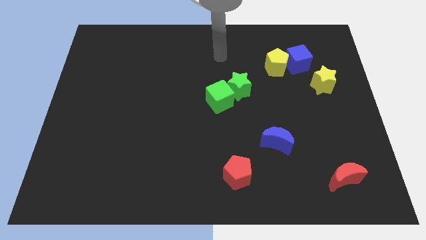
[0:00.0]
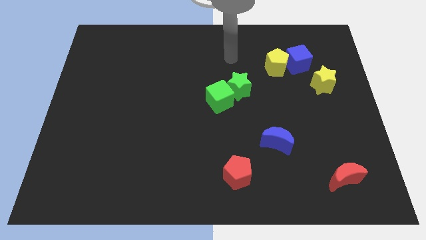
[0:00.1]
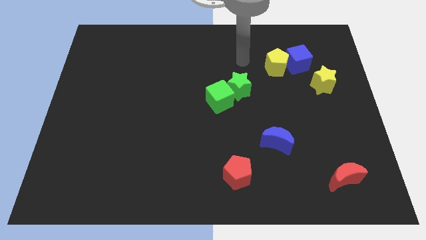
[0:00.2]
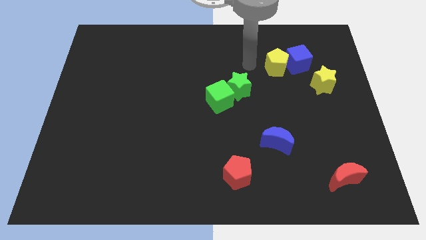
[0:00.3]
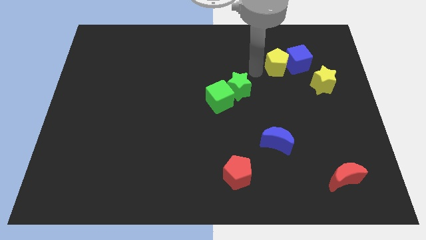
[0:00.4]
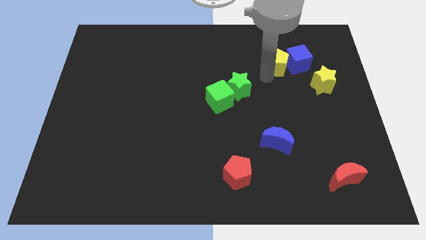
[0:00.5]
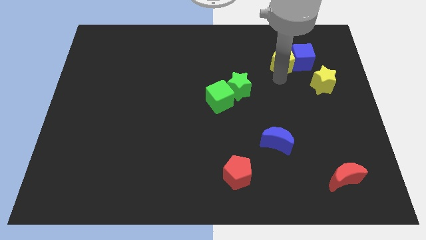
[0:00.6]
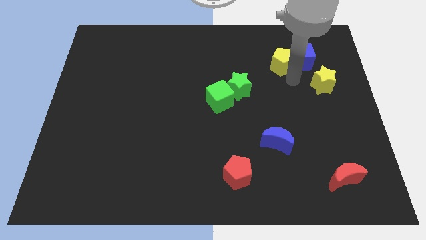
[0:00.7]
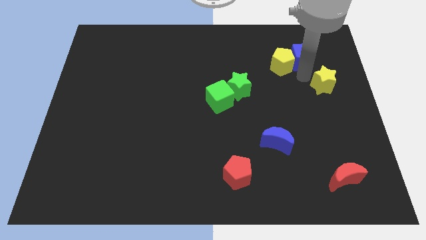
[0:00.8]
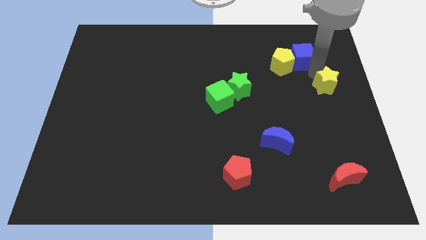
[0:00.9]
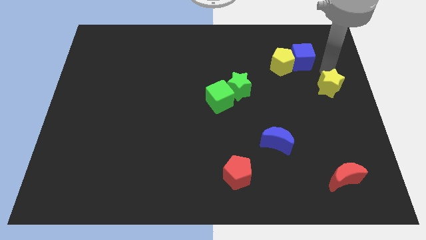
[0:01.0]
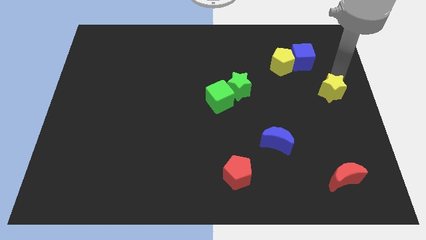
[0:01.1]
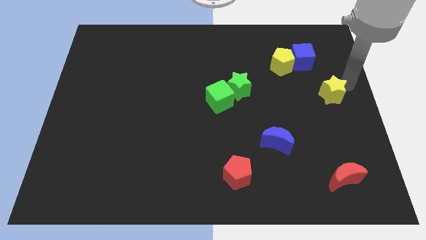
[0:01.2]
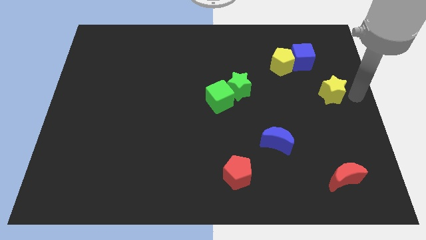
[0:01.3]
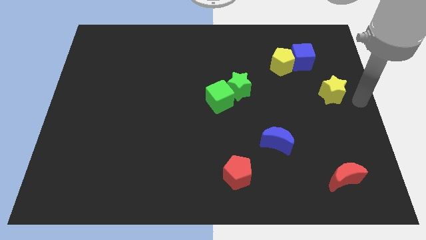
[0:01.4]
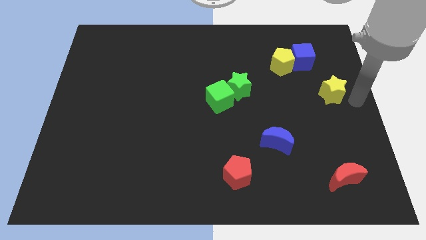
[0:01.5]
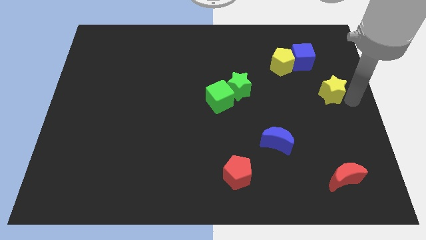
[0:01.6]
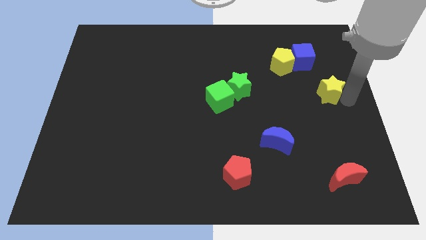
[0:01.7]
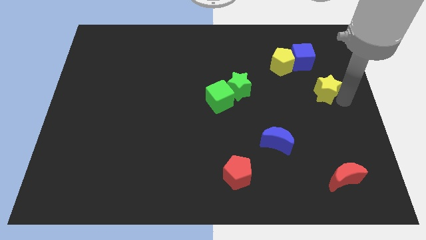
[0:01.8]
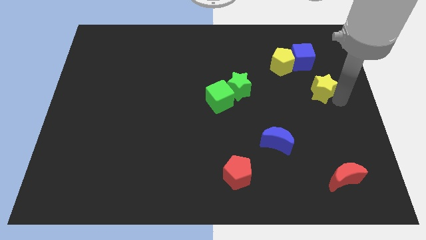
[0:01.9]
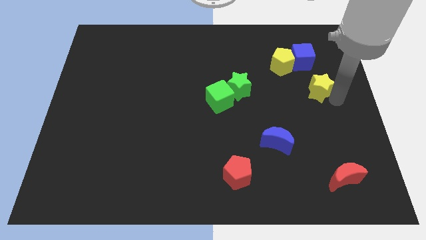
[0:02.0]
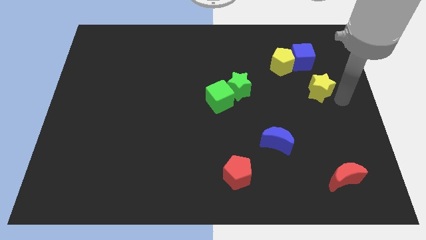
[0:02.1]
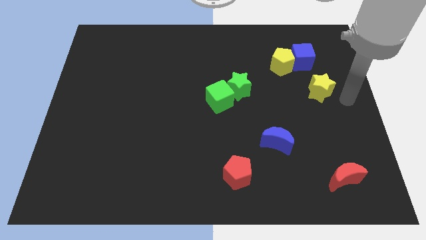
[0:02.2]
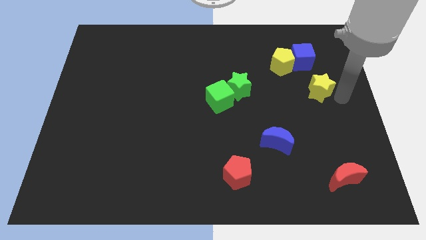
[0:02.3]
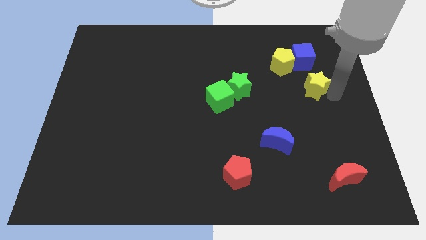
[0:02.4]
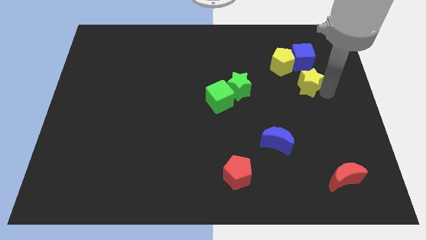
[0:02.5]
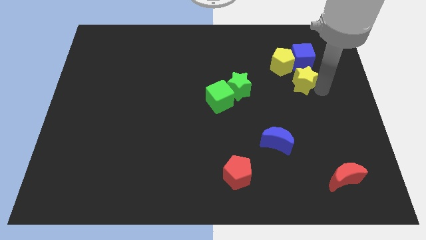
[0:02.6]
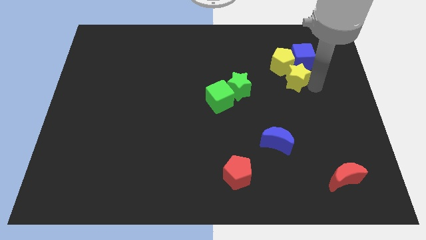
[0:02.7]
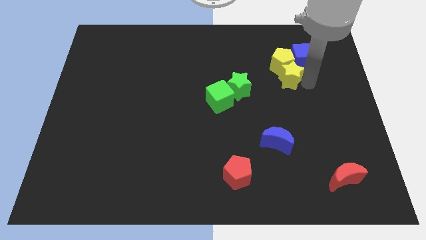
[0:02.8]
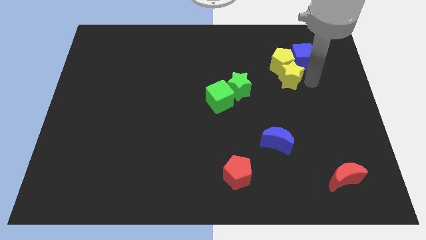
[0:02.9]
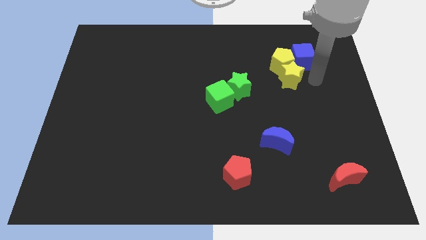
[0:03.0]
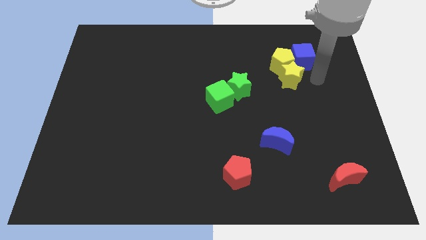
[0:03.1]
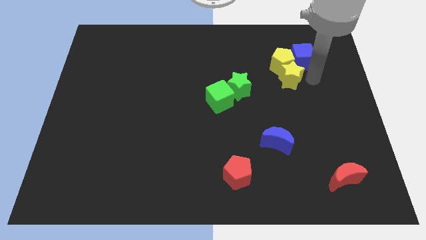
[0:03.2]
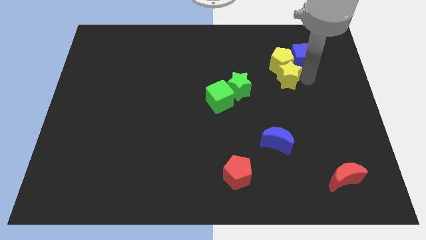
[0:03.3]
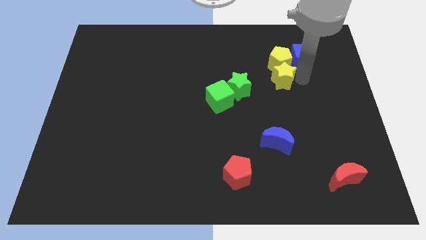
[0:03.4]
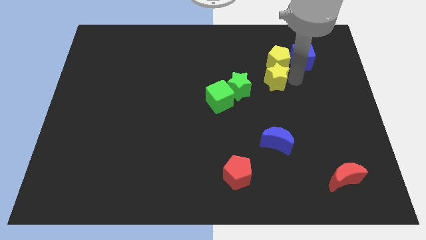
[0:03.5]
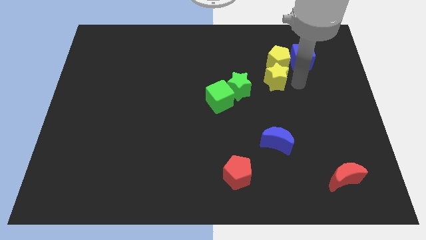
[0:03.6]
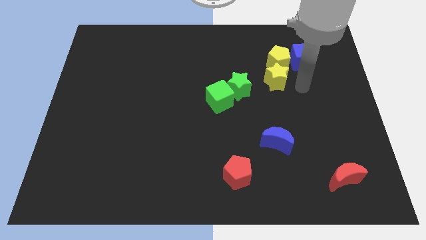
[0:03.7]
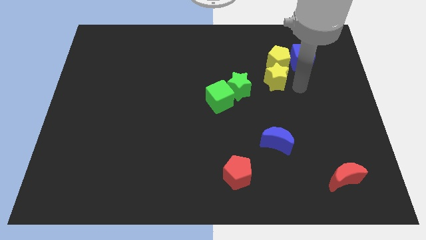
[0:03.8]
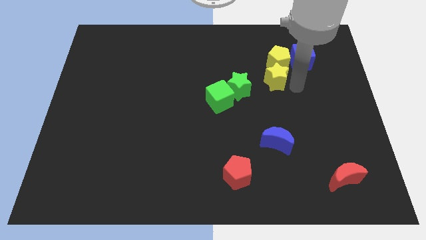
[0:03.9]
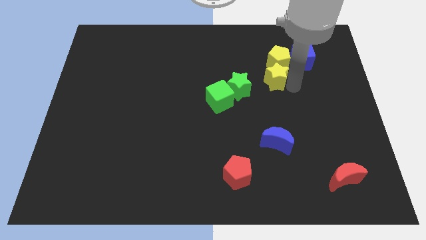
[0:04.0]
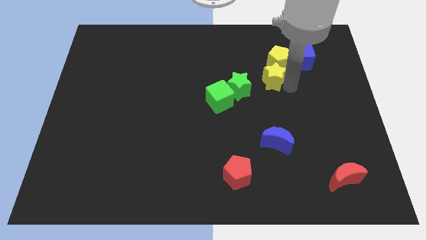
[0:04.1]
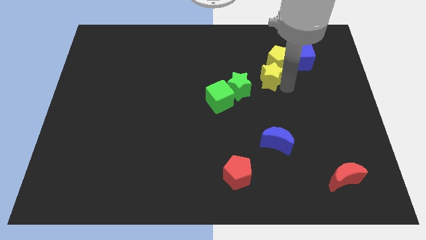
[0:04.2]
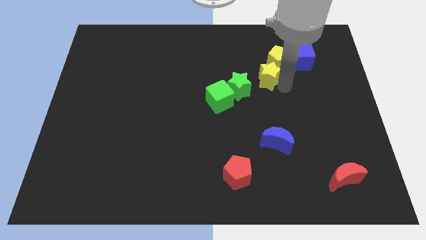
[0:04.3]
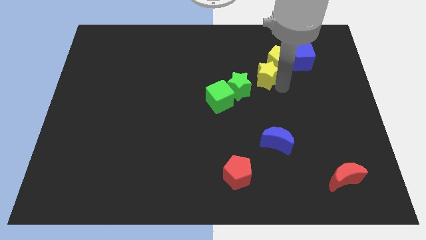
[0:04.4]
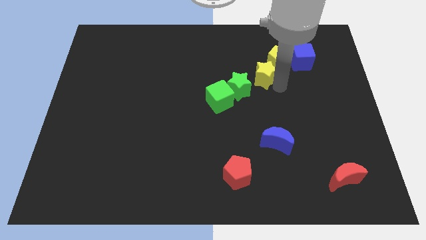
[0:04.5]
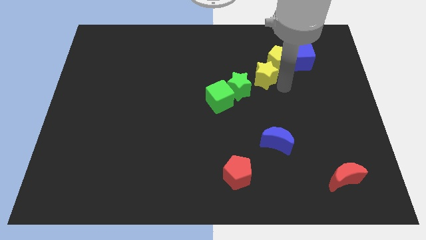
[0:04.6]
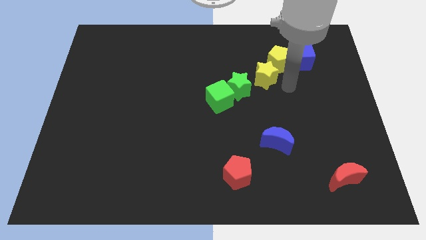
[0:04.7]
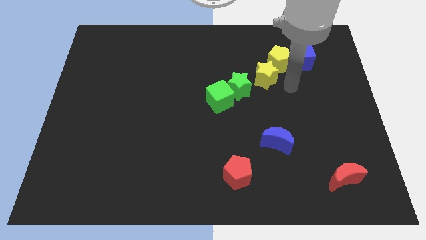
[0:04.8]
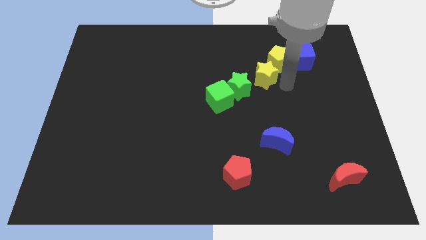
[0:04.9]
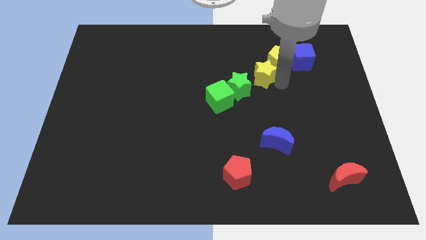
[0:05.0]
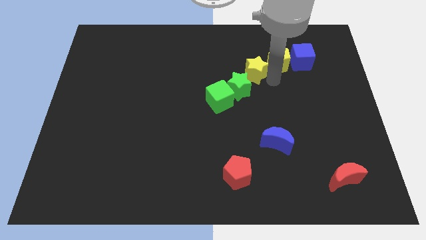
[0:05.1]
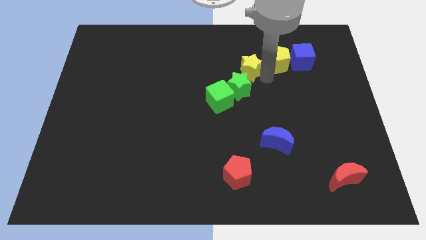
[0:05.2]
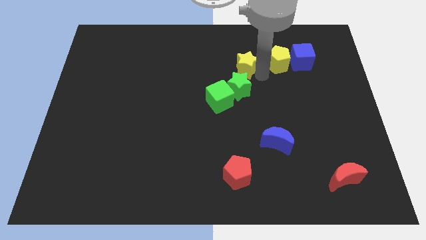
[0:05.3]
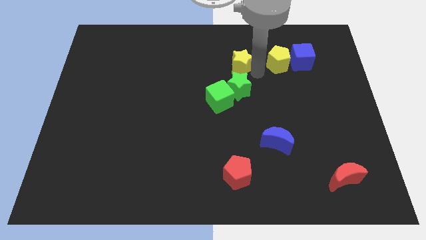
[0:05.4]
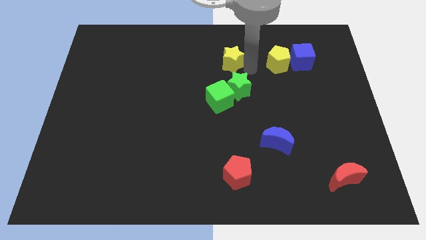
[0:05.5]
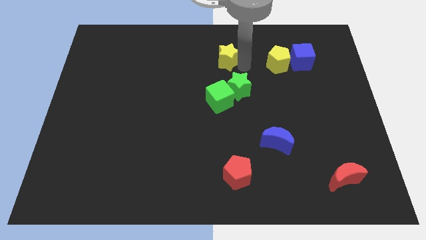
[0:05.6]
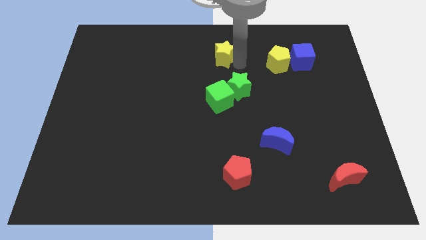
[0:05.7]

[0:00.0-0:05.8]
slide the yellow star to the top

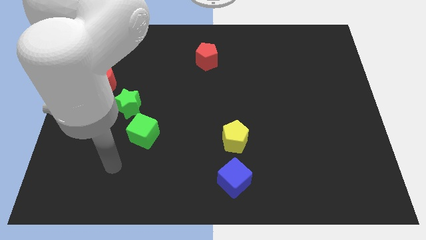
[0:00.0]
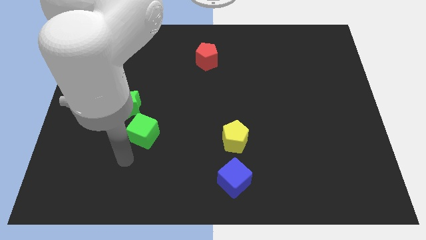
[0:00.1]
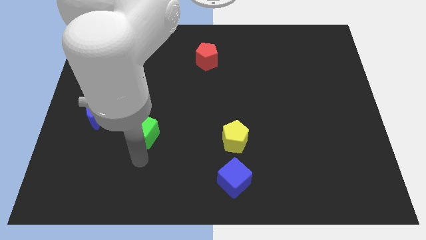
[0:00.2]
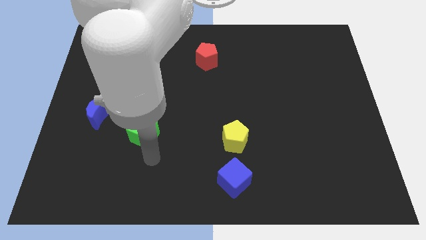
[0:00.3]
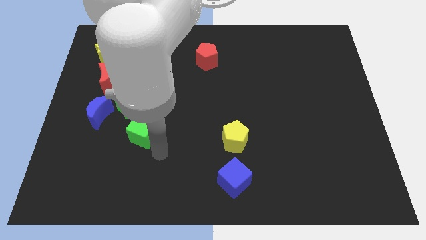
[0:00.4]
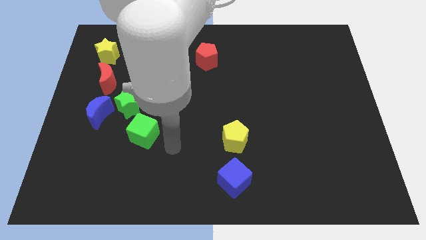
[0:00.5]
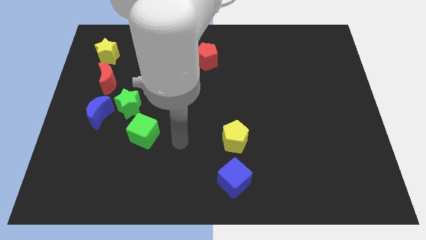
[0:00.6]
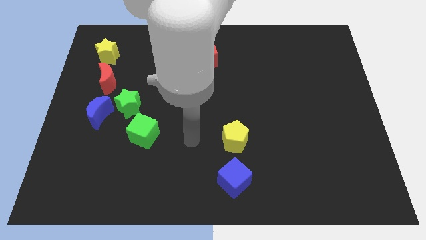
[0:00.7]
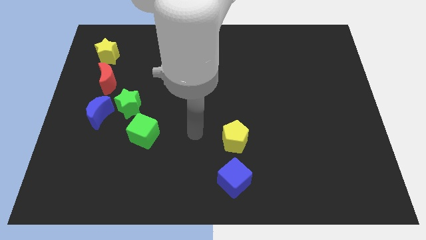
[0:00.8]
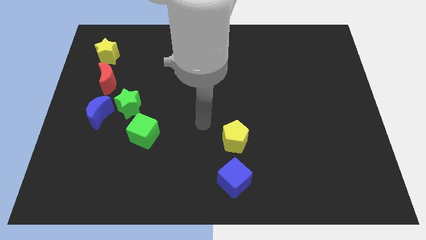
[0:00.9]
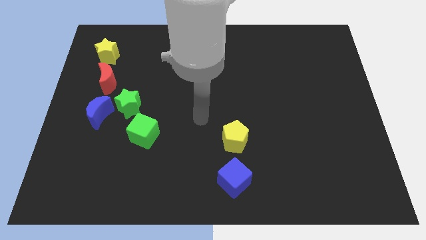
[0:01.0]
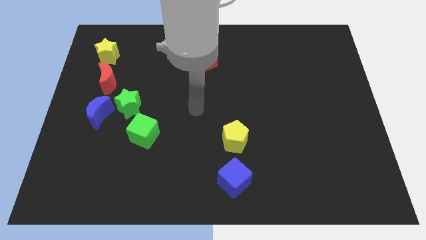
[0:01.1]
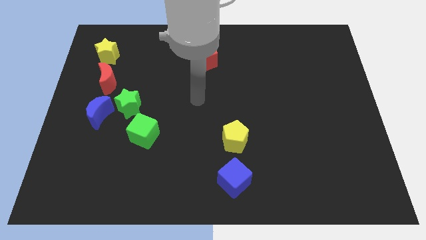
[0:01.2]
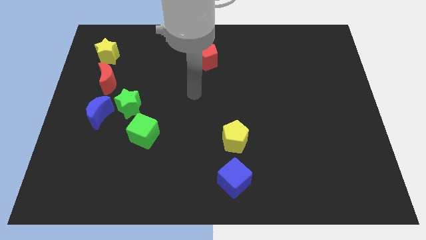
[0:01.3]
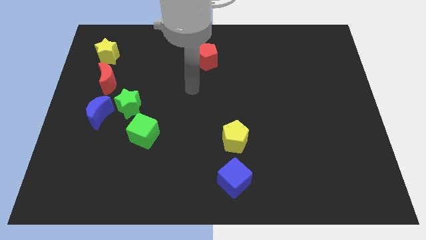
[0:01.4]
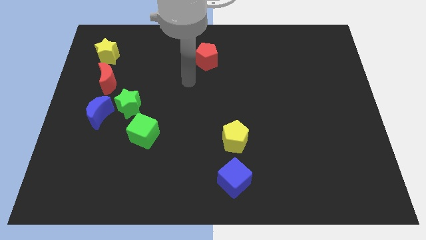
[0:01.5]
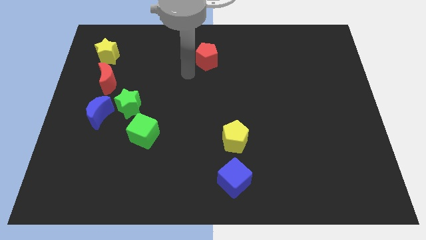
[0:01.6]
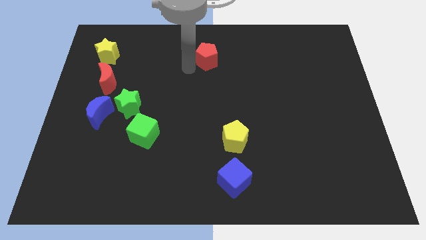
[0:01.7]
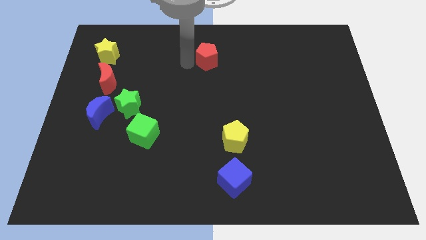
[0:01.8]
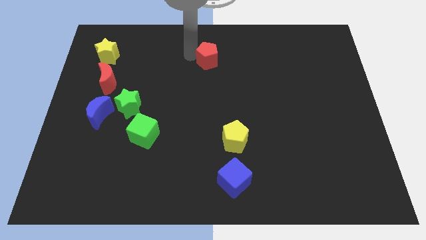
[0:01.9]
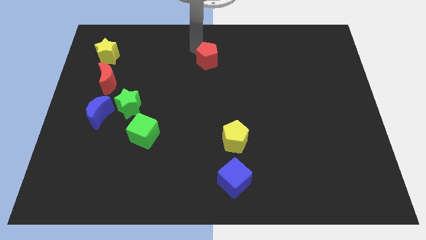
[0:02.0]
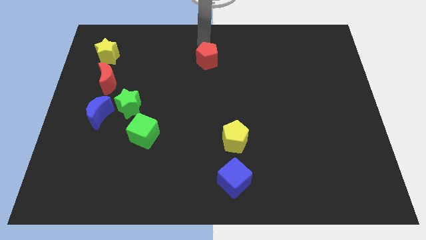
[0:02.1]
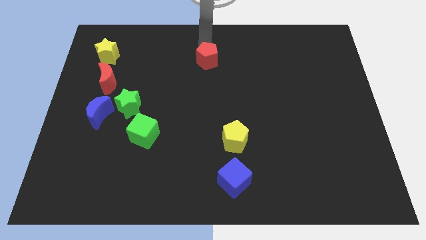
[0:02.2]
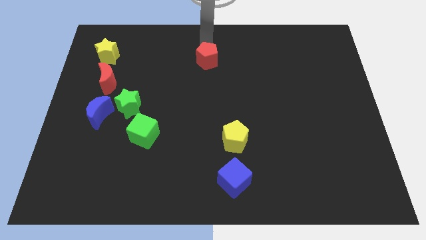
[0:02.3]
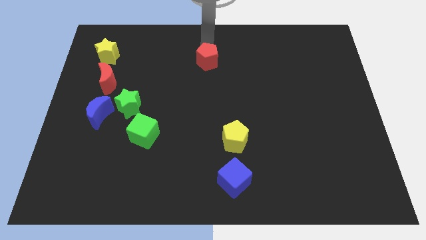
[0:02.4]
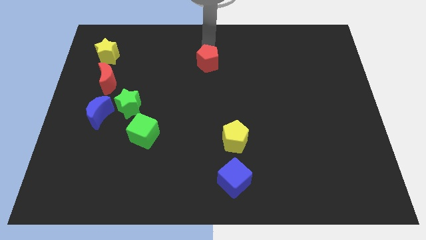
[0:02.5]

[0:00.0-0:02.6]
put the red pentagon to the middle
